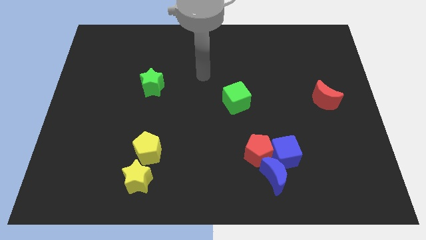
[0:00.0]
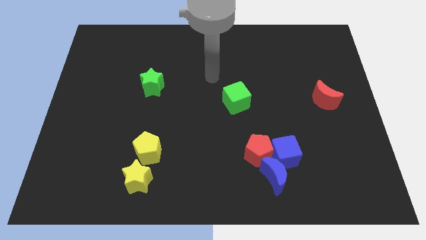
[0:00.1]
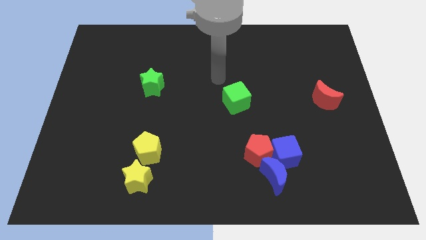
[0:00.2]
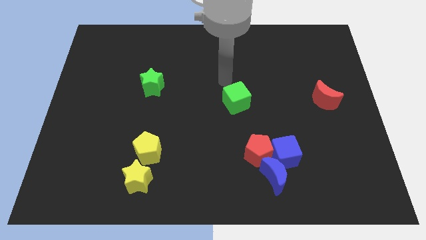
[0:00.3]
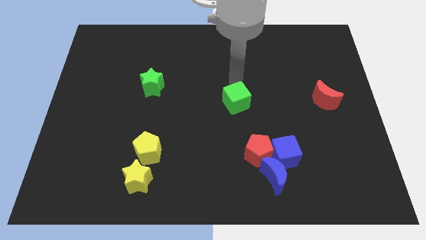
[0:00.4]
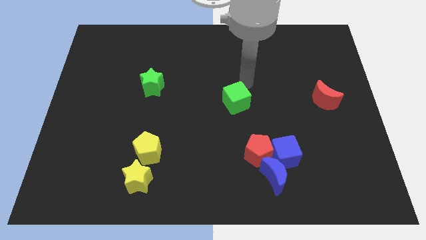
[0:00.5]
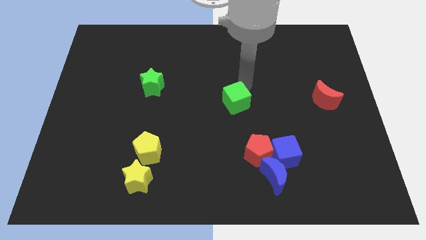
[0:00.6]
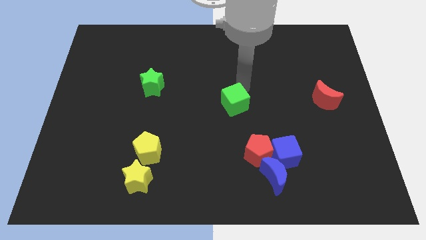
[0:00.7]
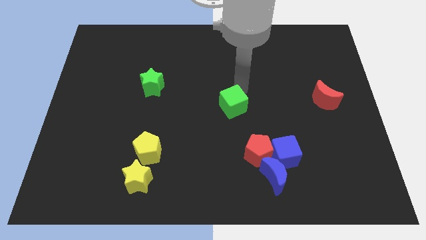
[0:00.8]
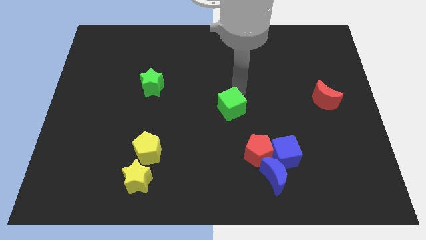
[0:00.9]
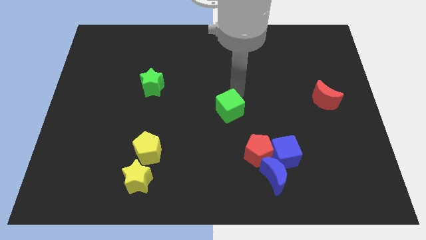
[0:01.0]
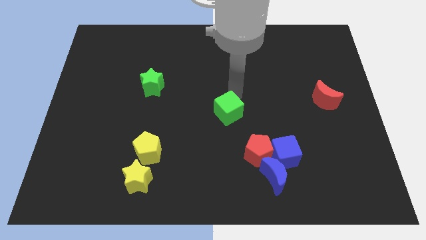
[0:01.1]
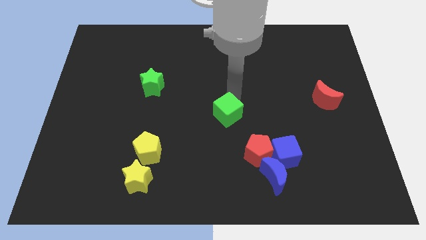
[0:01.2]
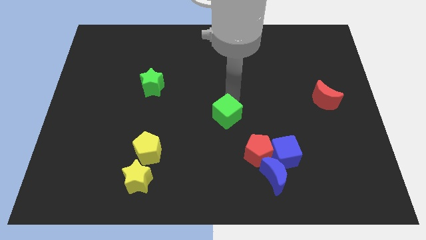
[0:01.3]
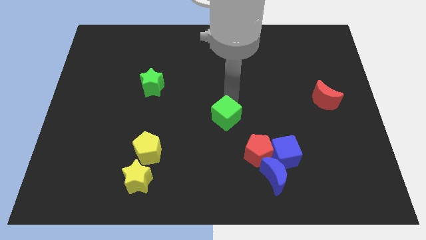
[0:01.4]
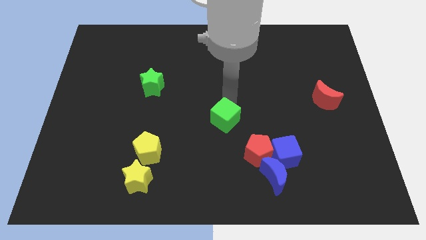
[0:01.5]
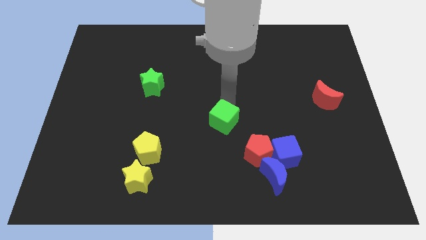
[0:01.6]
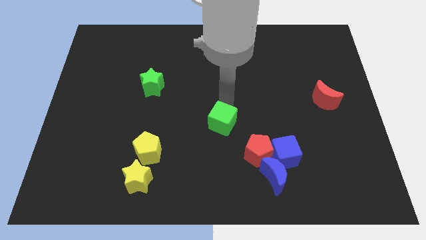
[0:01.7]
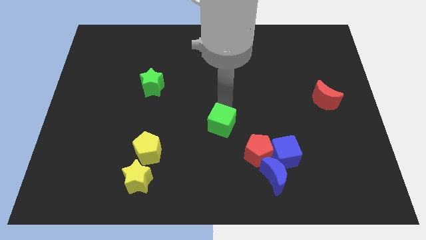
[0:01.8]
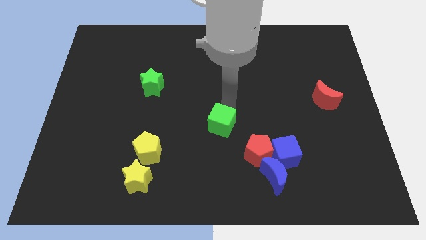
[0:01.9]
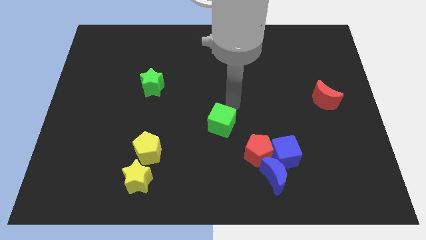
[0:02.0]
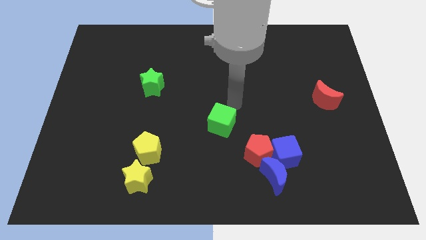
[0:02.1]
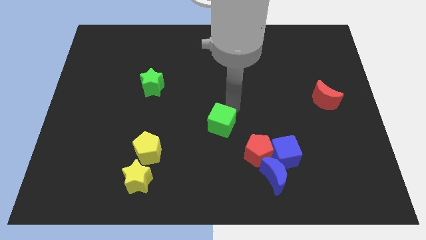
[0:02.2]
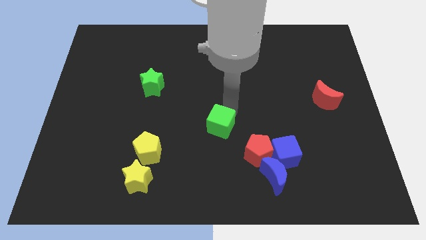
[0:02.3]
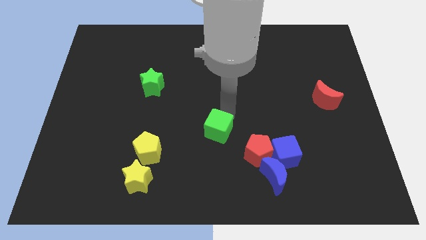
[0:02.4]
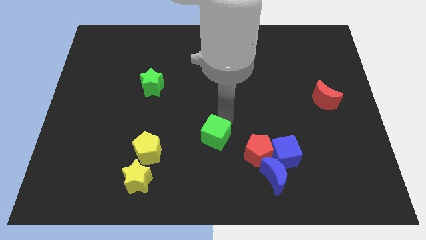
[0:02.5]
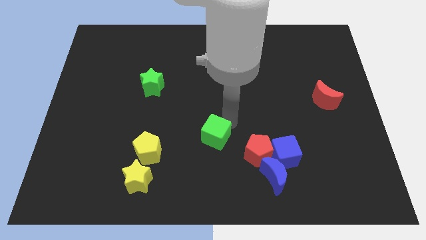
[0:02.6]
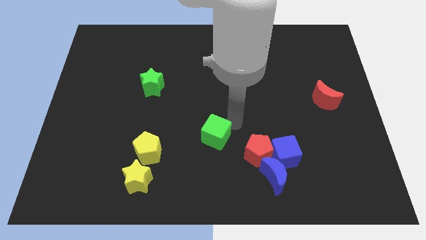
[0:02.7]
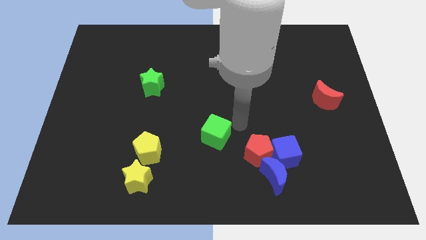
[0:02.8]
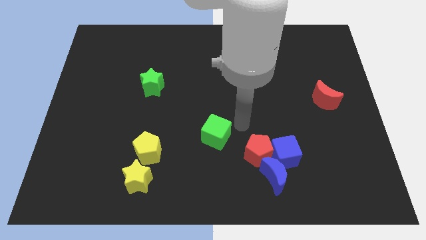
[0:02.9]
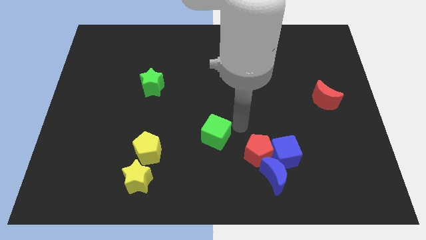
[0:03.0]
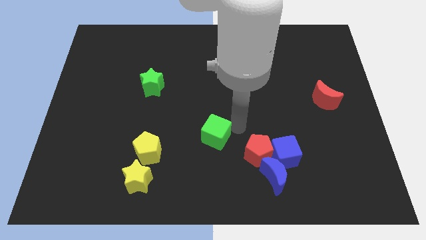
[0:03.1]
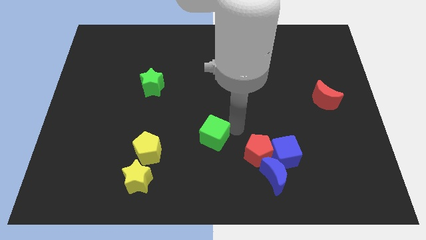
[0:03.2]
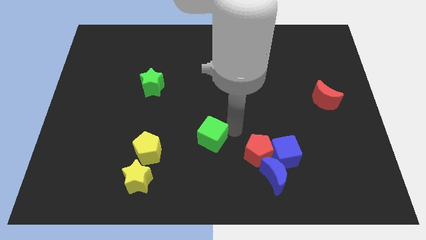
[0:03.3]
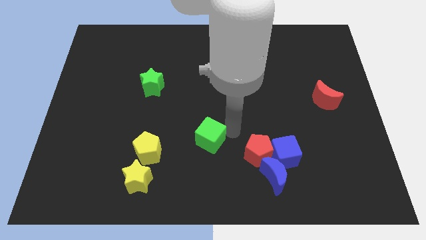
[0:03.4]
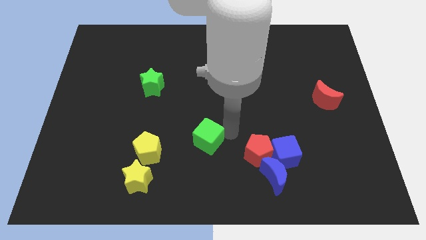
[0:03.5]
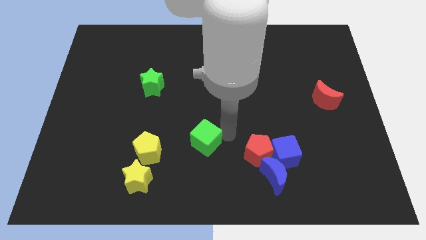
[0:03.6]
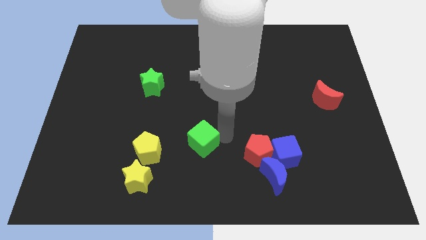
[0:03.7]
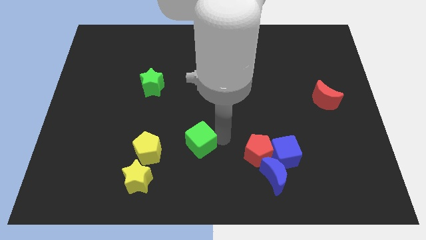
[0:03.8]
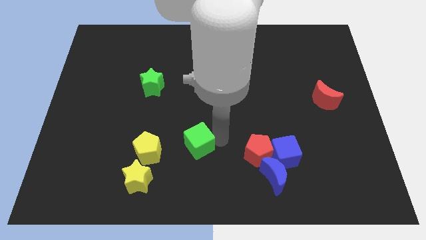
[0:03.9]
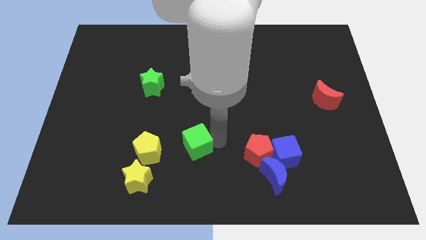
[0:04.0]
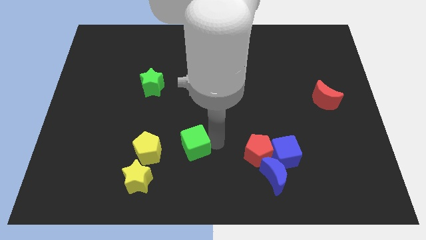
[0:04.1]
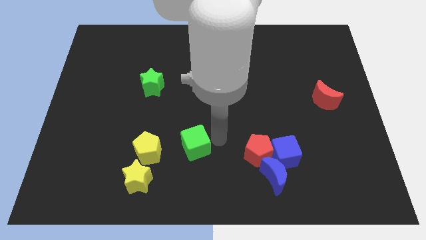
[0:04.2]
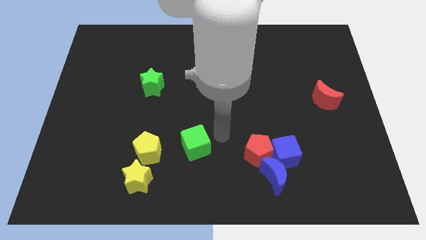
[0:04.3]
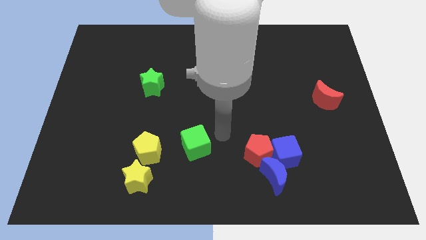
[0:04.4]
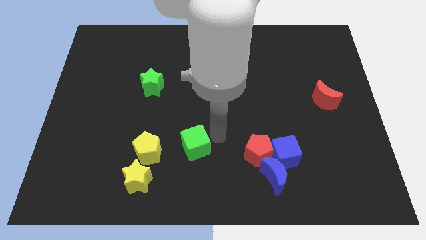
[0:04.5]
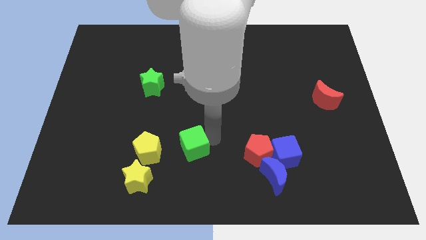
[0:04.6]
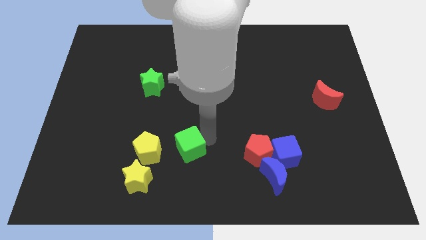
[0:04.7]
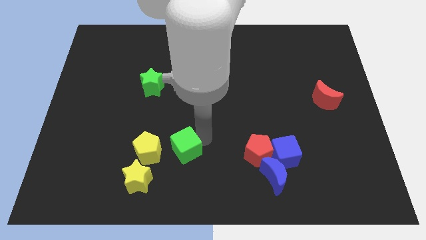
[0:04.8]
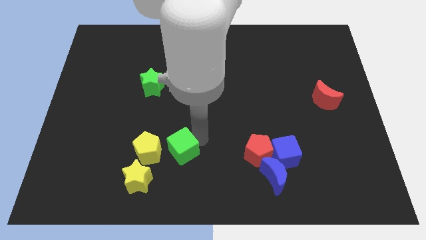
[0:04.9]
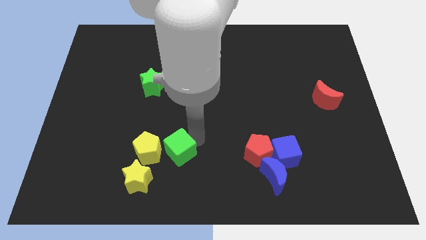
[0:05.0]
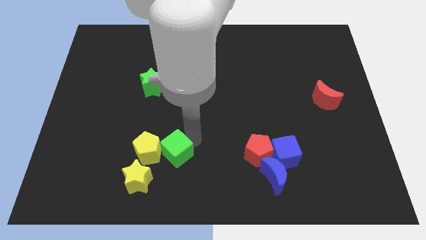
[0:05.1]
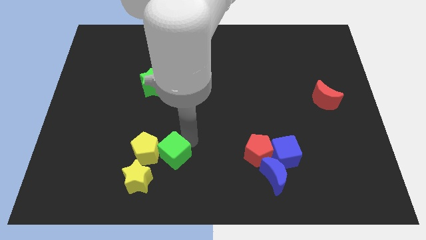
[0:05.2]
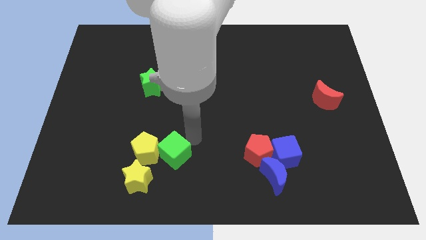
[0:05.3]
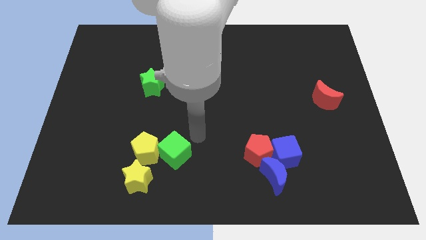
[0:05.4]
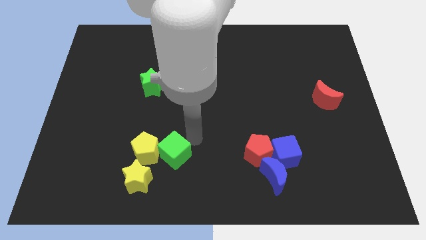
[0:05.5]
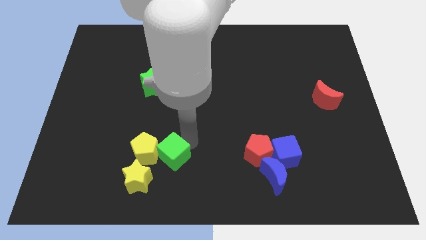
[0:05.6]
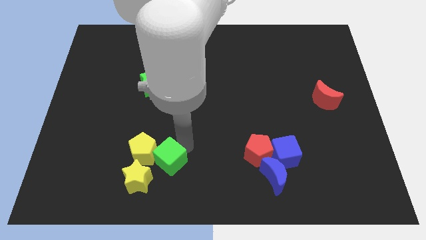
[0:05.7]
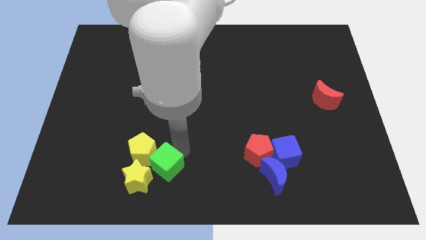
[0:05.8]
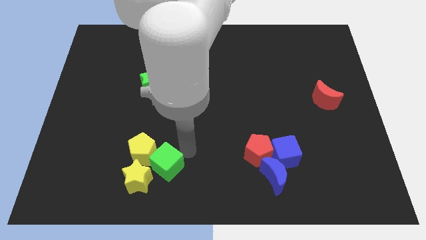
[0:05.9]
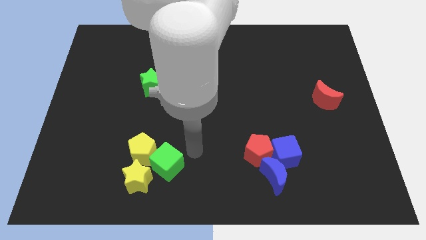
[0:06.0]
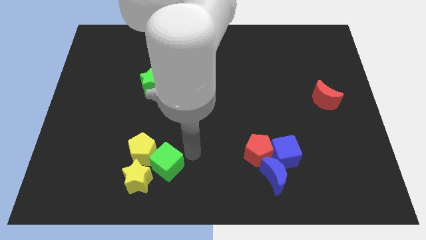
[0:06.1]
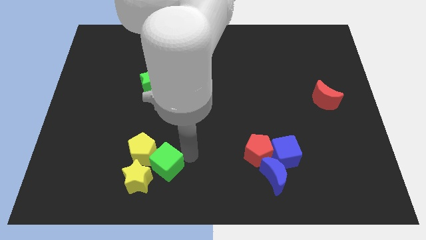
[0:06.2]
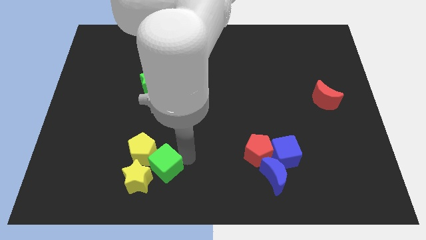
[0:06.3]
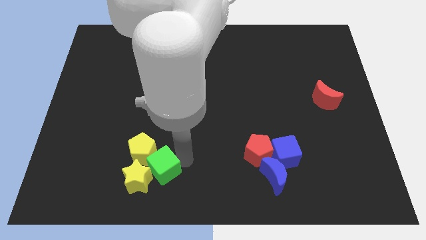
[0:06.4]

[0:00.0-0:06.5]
push the green cube close to the yellow star

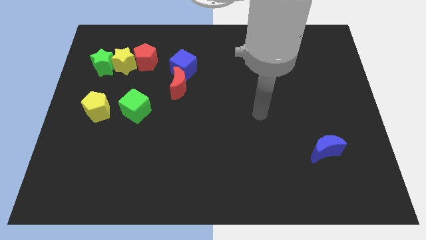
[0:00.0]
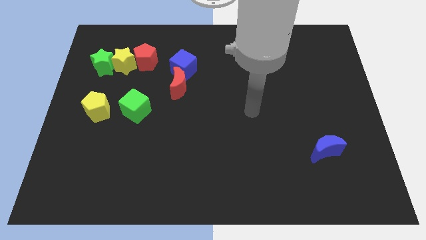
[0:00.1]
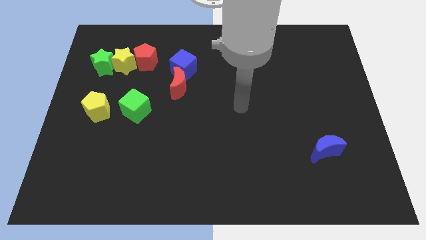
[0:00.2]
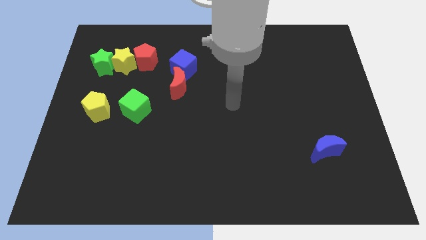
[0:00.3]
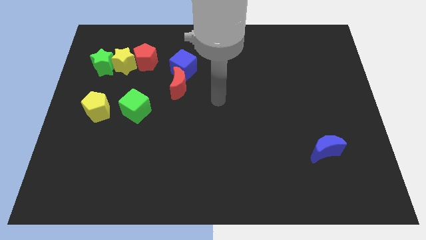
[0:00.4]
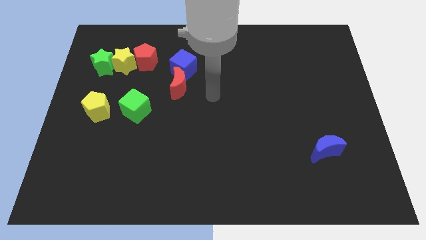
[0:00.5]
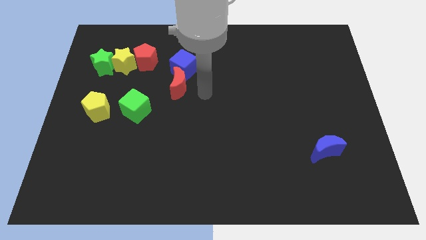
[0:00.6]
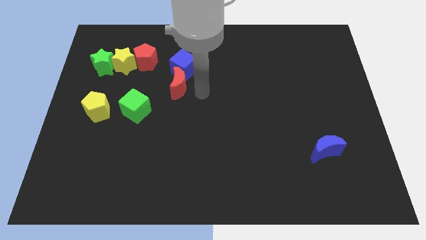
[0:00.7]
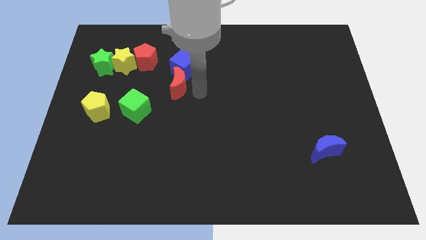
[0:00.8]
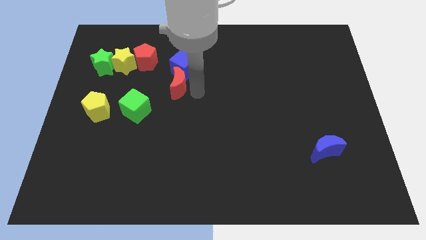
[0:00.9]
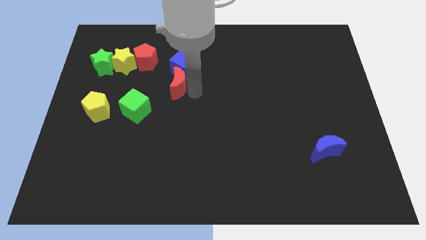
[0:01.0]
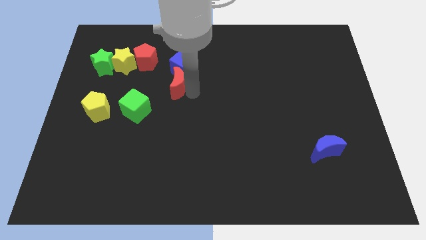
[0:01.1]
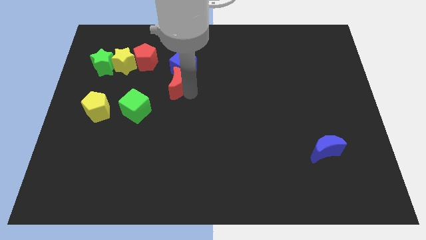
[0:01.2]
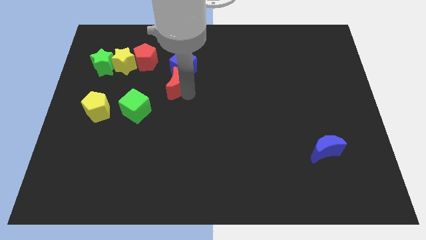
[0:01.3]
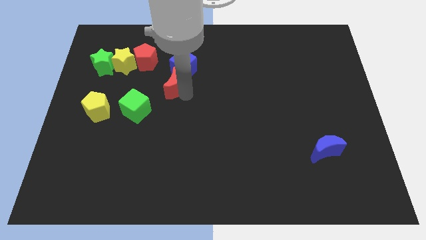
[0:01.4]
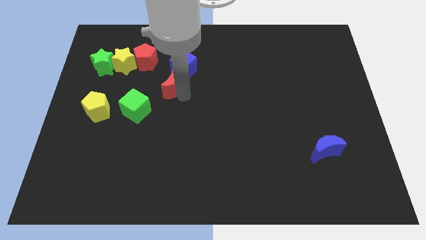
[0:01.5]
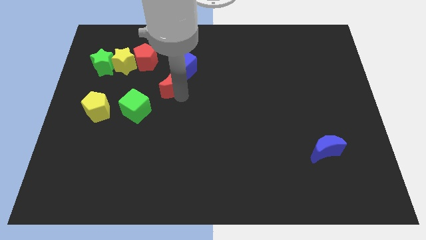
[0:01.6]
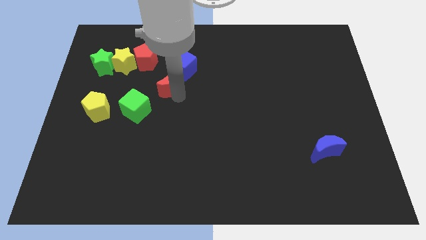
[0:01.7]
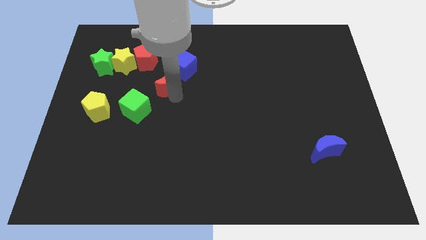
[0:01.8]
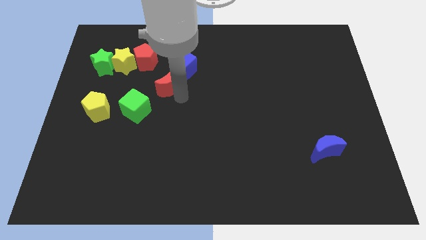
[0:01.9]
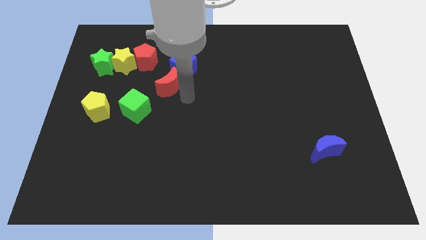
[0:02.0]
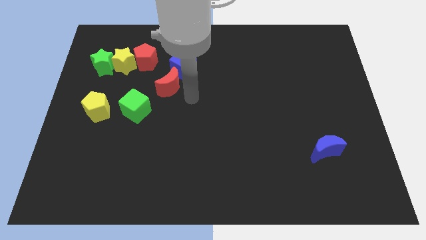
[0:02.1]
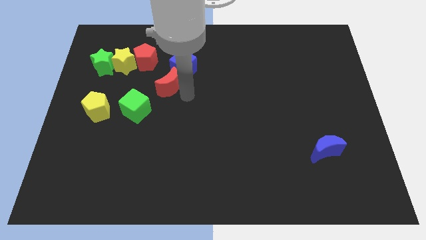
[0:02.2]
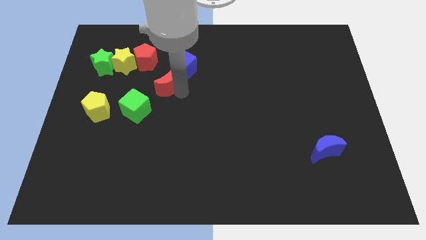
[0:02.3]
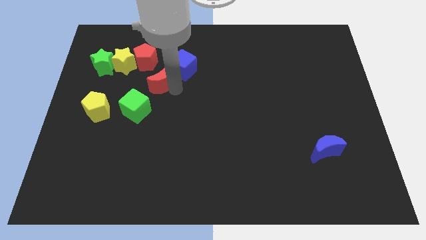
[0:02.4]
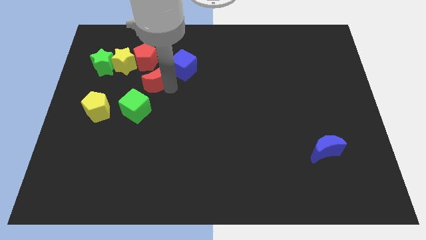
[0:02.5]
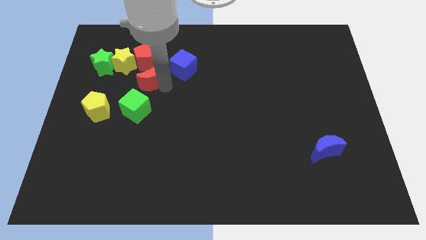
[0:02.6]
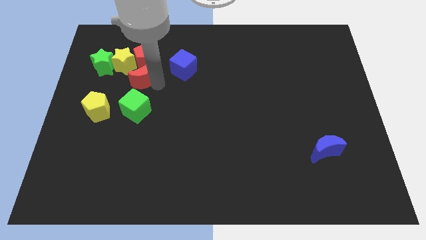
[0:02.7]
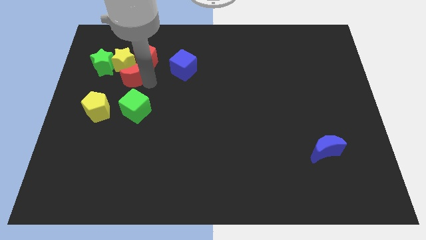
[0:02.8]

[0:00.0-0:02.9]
push the red moon close to the yellow star
